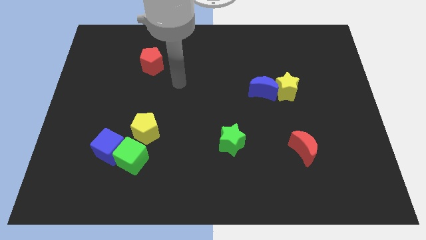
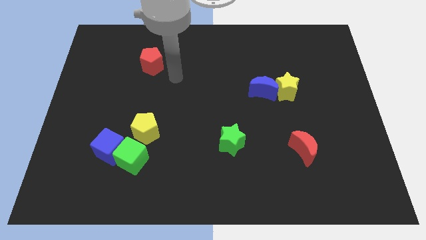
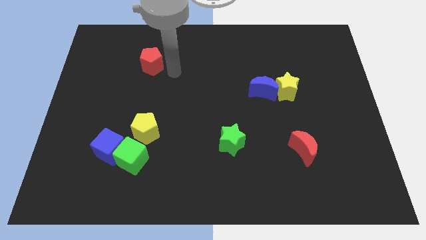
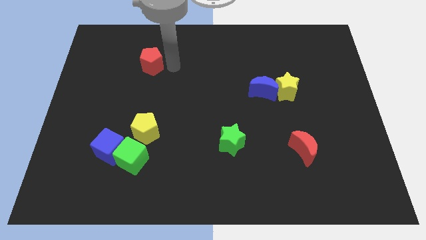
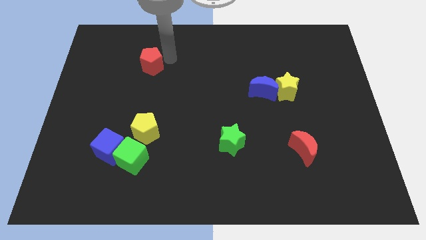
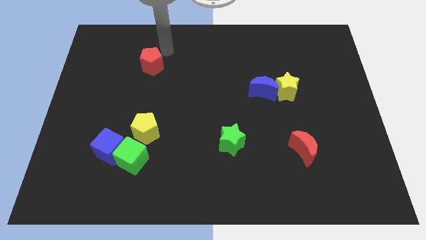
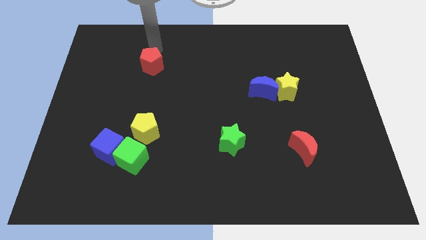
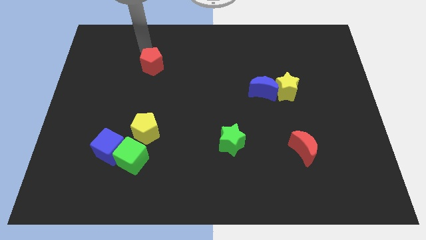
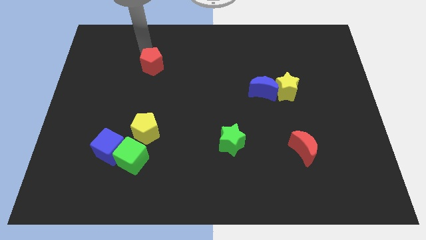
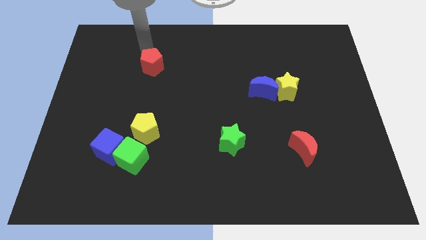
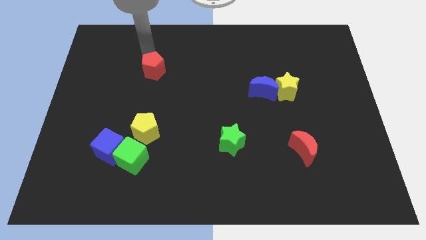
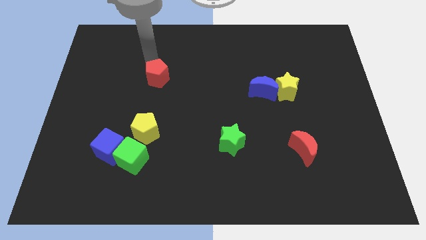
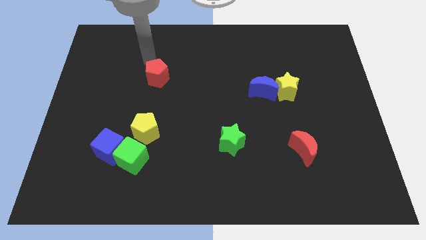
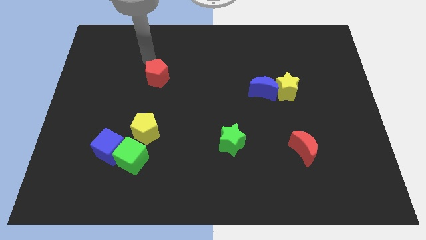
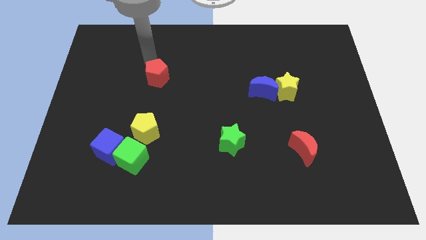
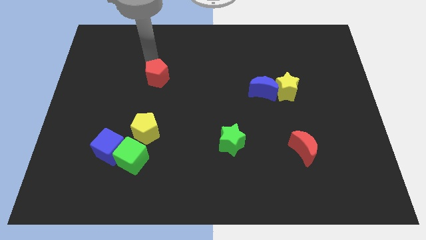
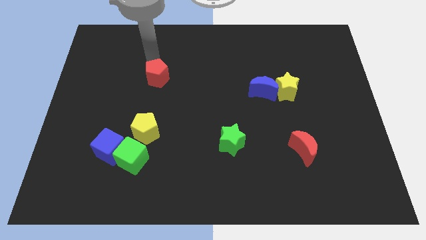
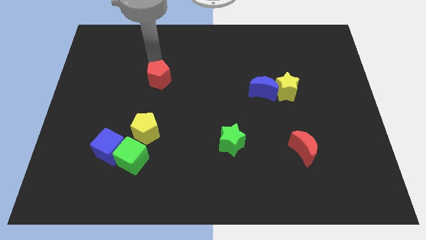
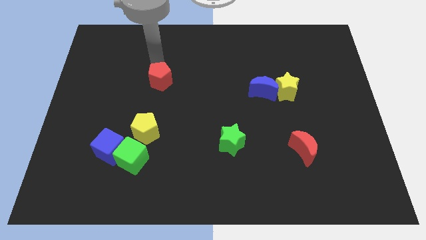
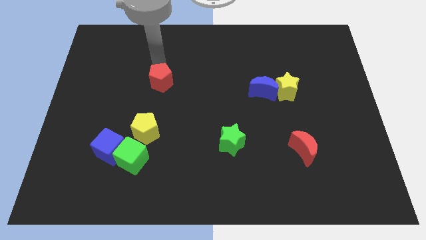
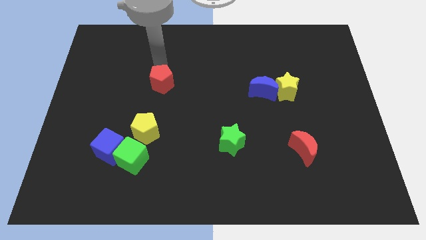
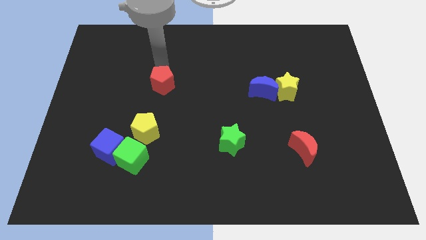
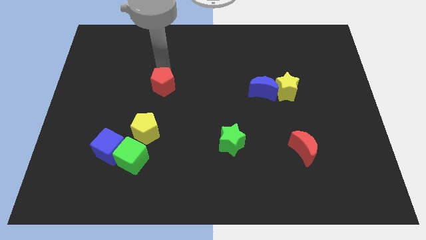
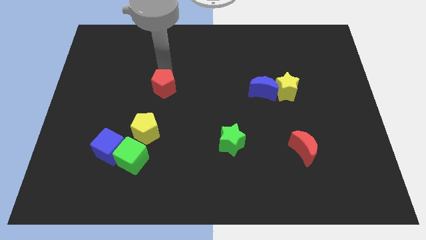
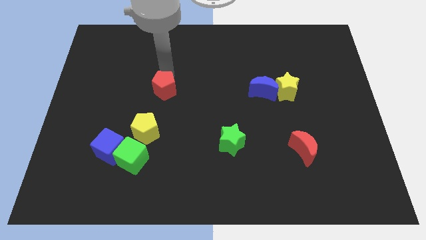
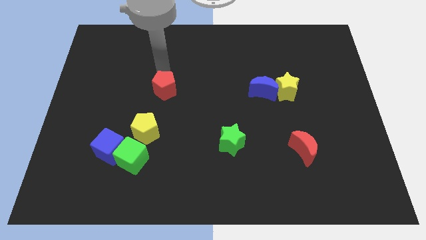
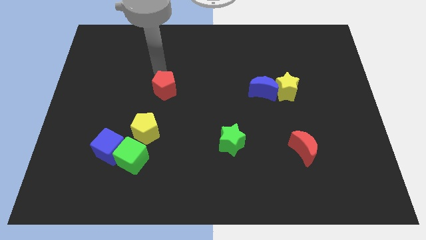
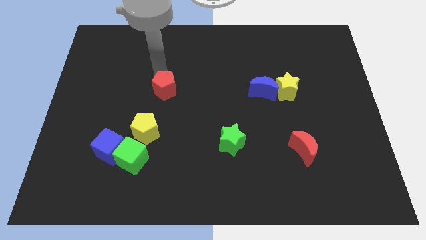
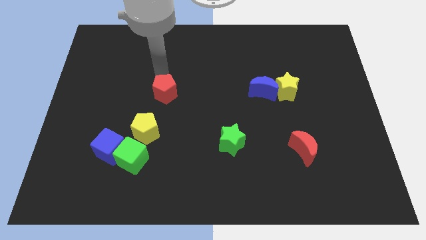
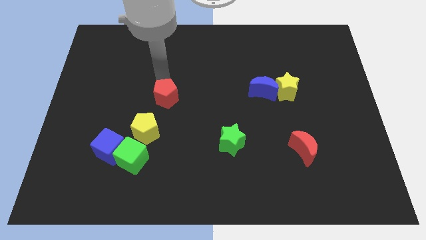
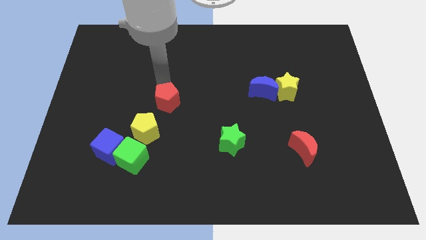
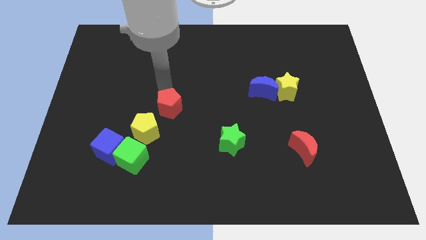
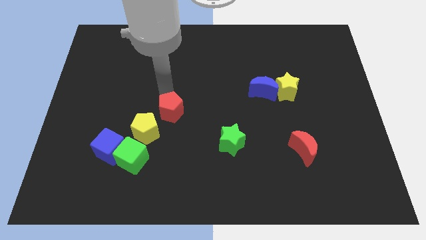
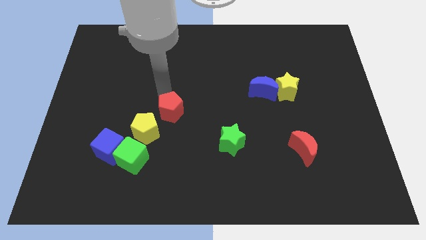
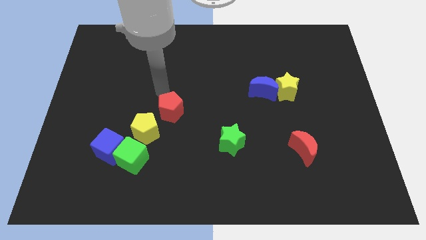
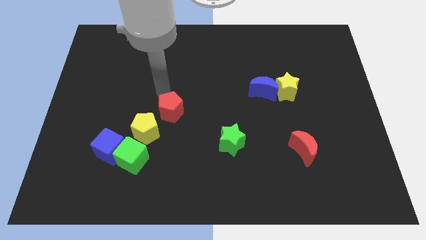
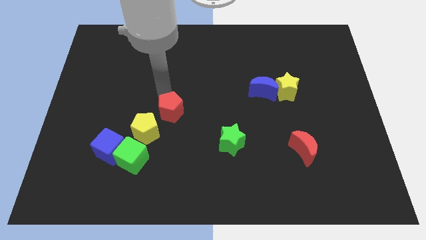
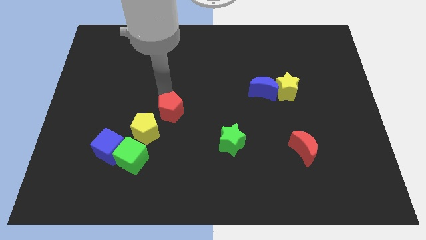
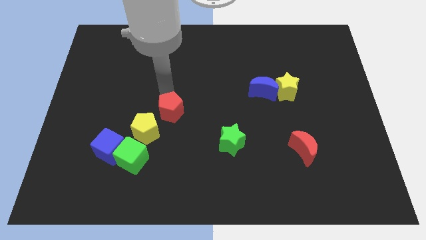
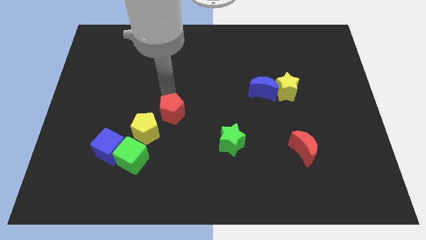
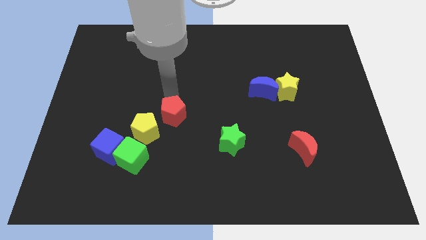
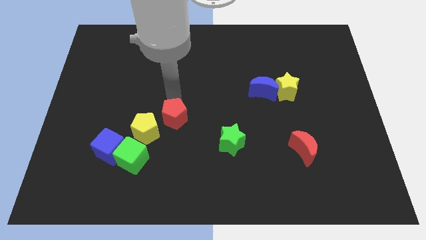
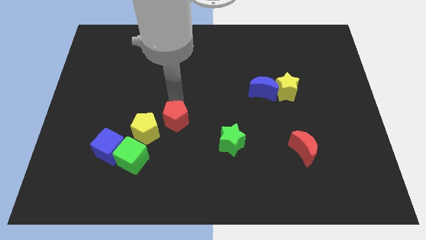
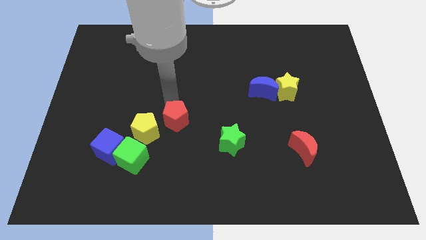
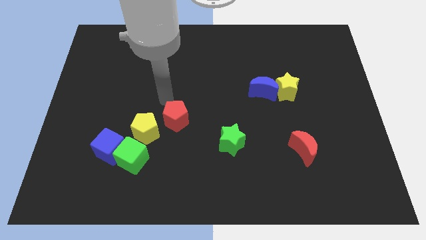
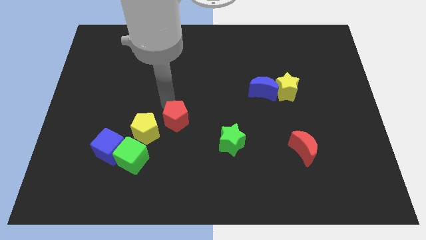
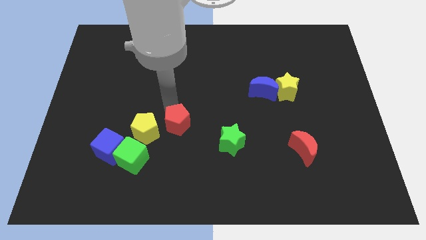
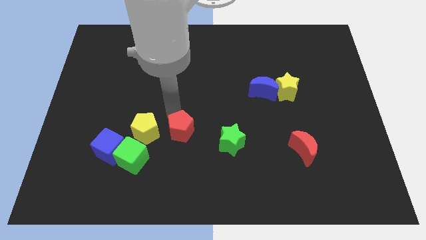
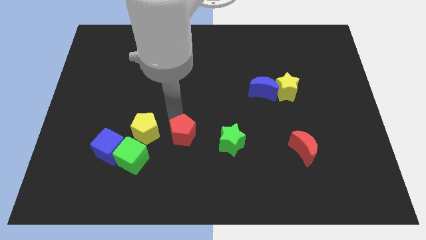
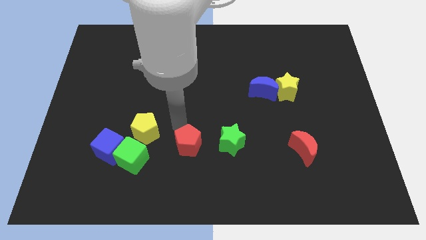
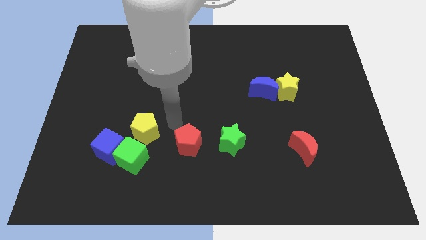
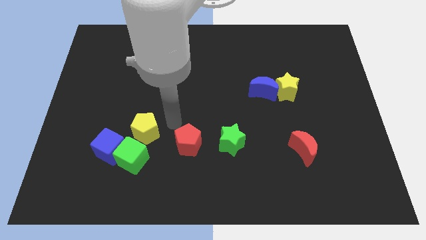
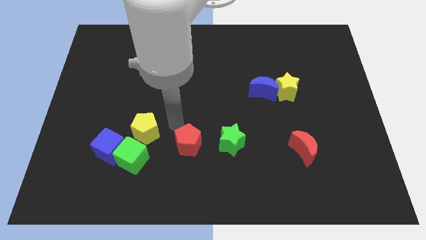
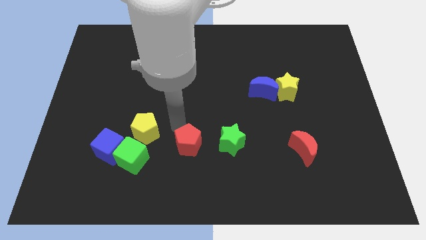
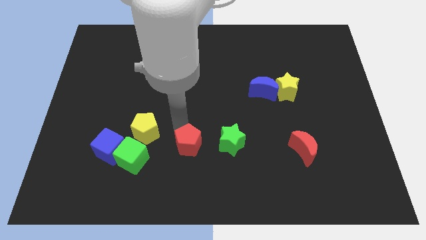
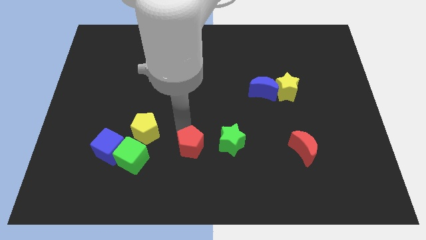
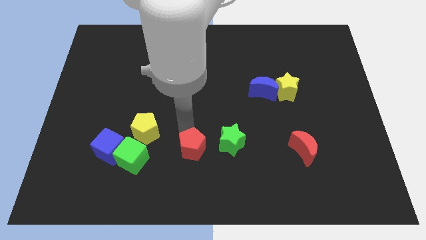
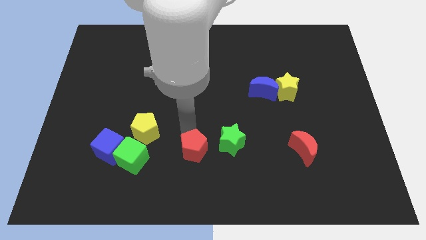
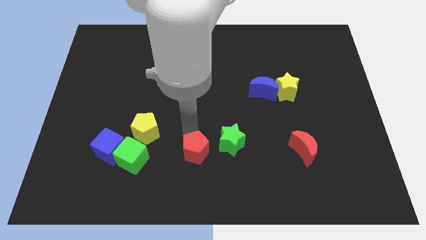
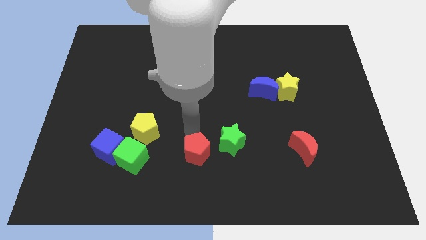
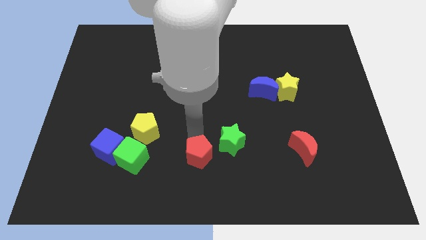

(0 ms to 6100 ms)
push the red pentagon to the bottom side
